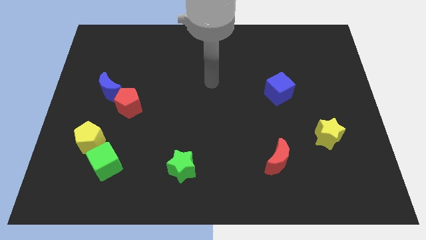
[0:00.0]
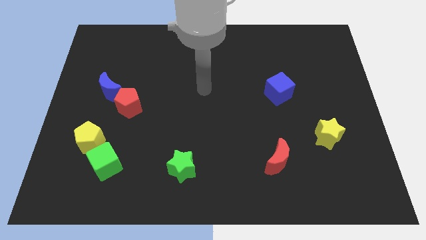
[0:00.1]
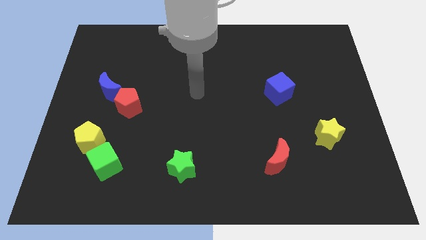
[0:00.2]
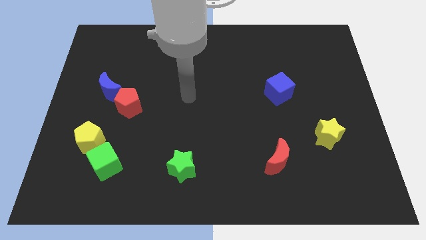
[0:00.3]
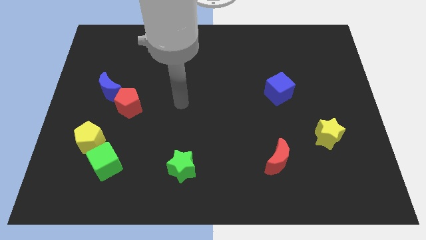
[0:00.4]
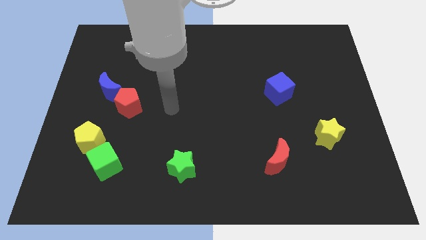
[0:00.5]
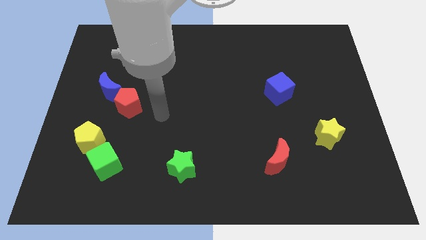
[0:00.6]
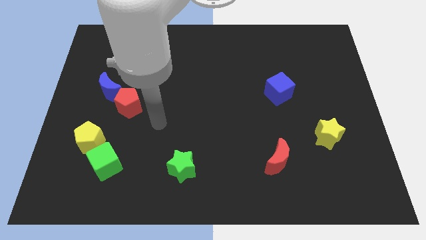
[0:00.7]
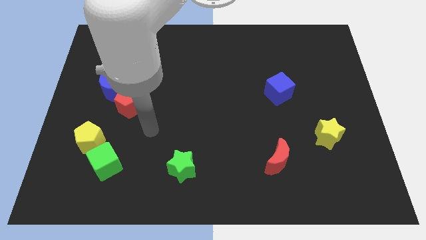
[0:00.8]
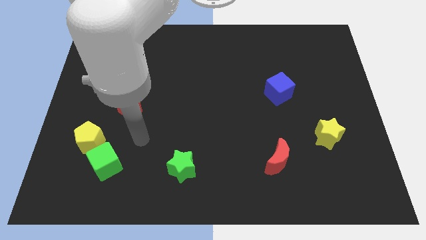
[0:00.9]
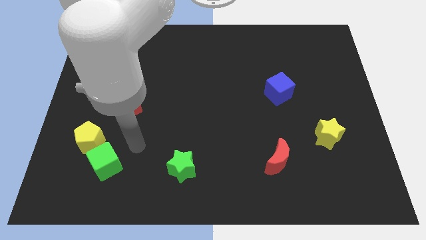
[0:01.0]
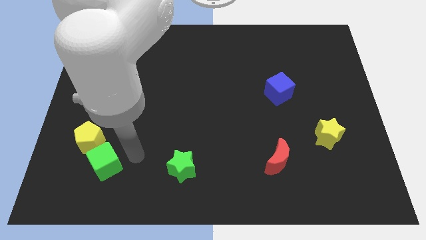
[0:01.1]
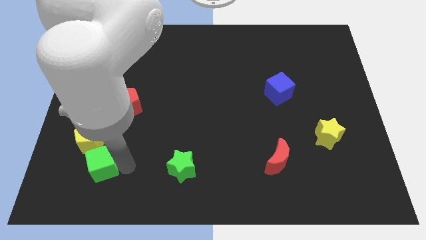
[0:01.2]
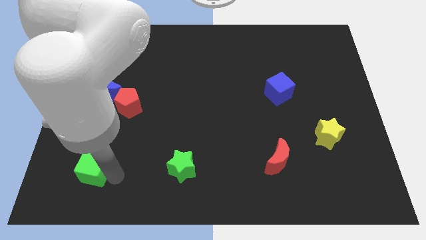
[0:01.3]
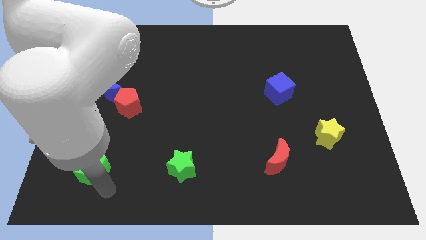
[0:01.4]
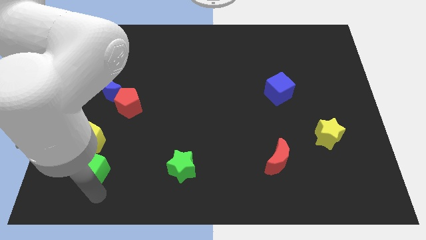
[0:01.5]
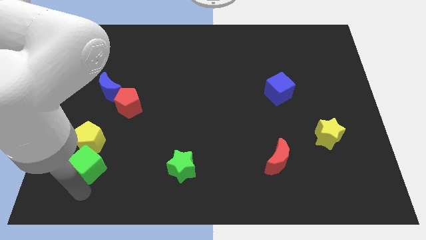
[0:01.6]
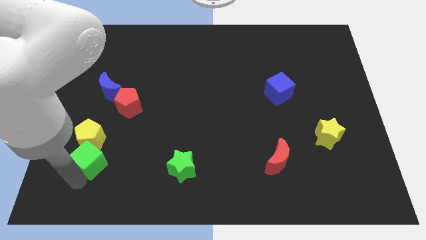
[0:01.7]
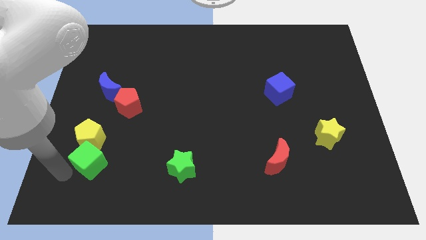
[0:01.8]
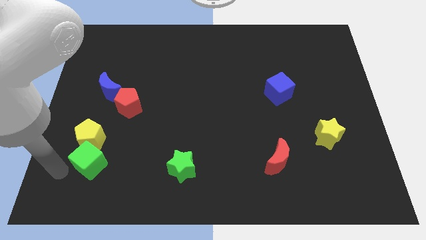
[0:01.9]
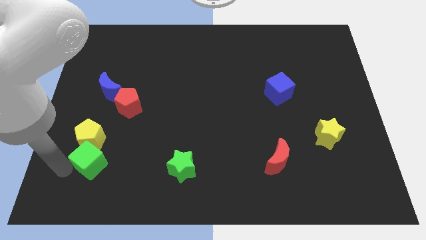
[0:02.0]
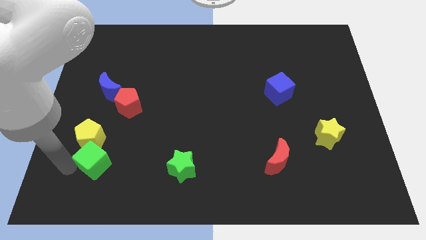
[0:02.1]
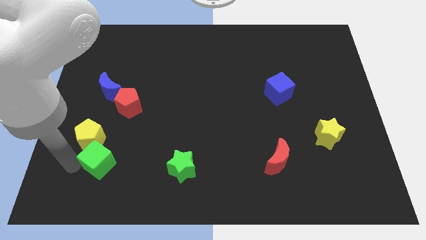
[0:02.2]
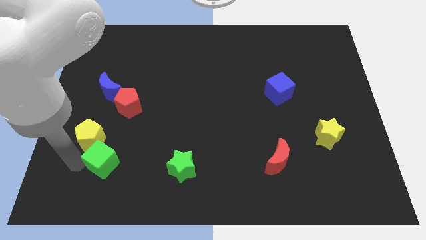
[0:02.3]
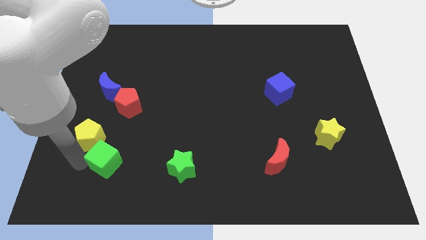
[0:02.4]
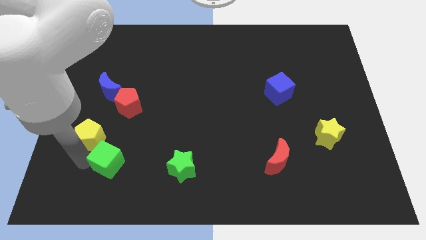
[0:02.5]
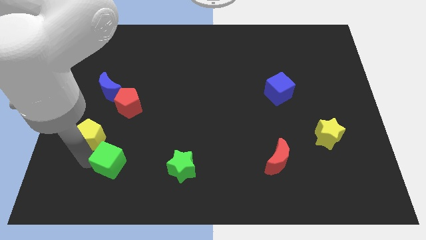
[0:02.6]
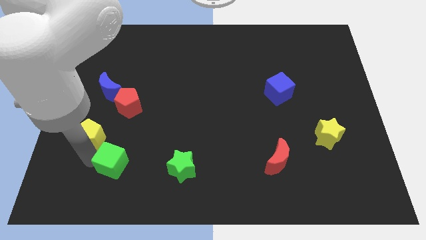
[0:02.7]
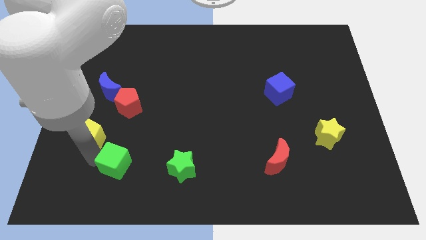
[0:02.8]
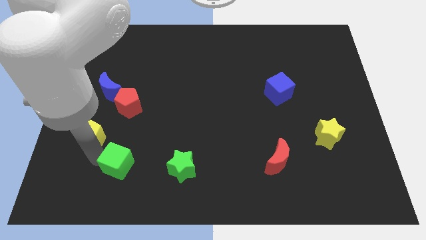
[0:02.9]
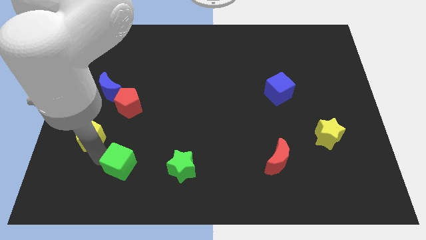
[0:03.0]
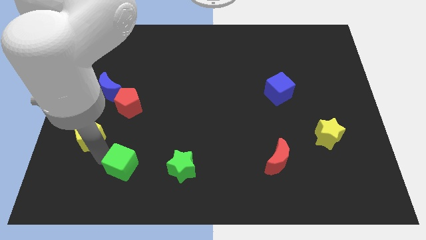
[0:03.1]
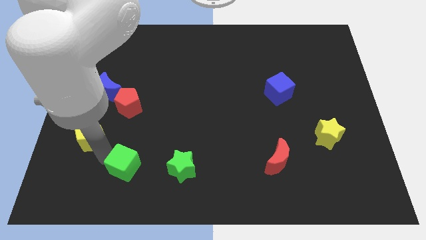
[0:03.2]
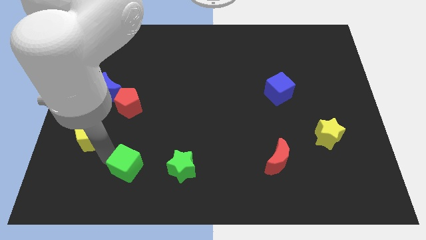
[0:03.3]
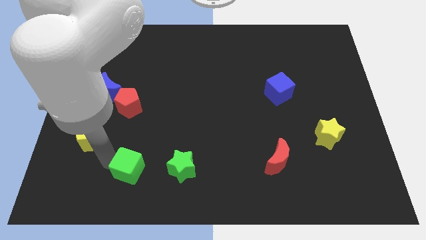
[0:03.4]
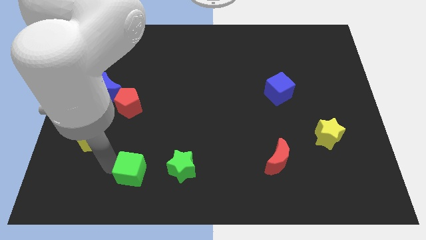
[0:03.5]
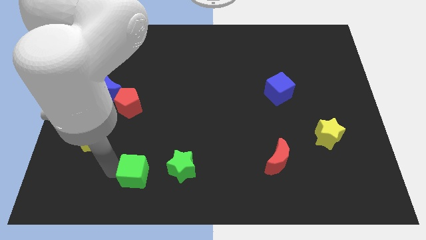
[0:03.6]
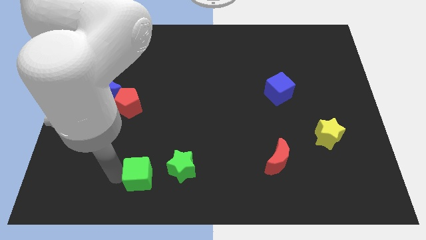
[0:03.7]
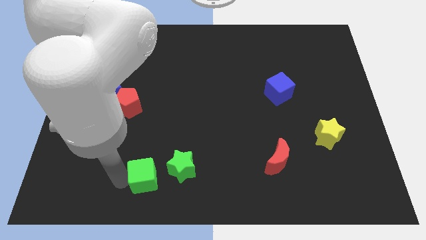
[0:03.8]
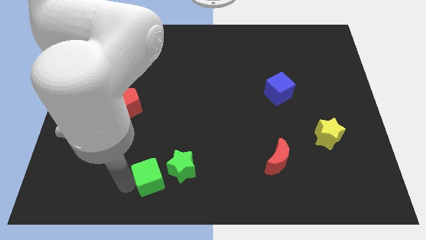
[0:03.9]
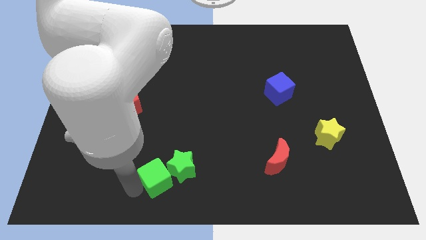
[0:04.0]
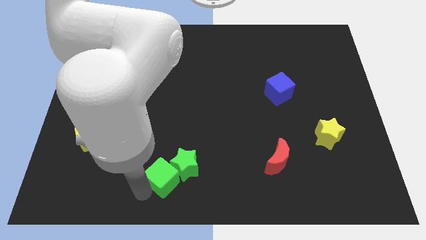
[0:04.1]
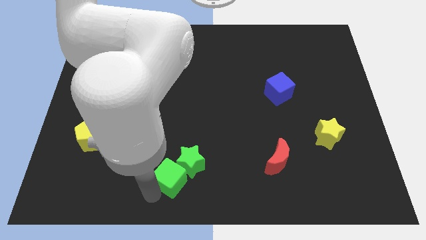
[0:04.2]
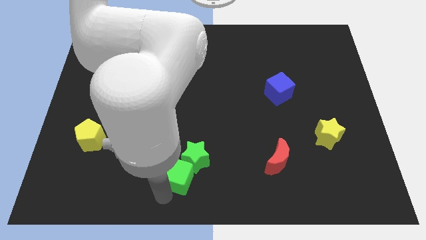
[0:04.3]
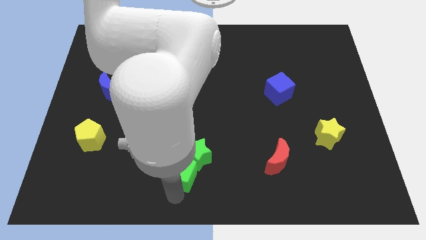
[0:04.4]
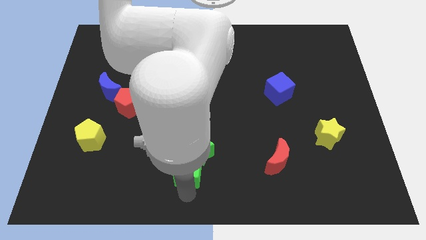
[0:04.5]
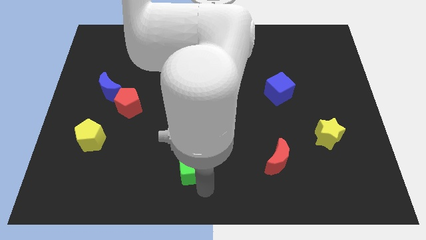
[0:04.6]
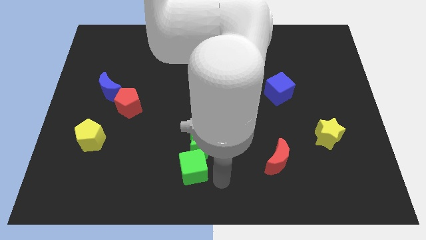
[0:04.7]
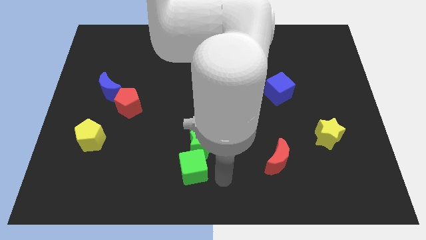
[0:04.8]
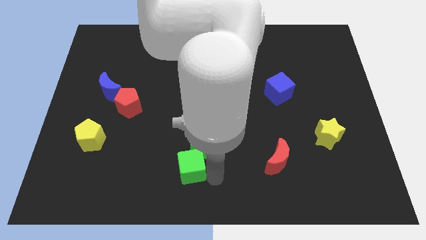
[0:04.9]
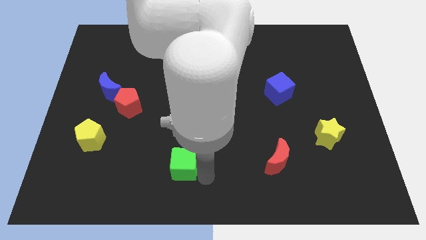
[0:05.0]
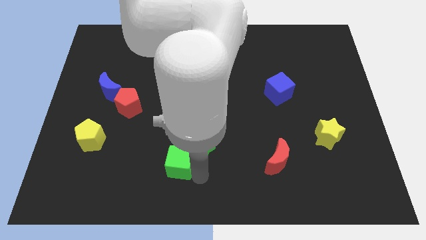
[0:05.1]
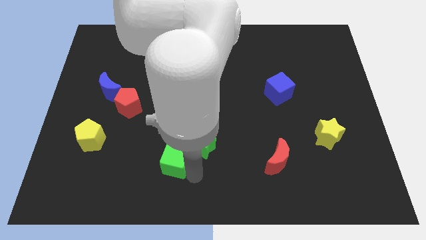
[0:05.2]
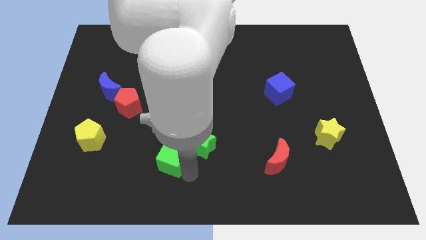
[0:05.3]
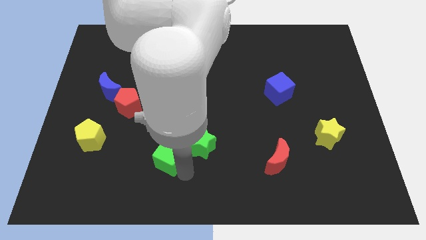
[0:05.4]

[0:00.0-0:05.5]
push the green cube slightly up and to the right

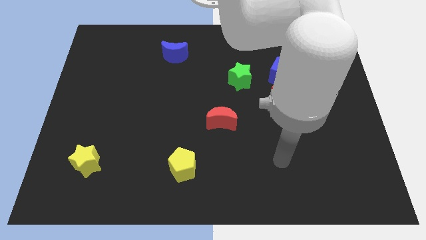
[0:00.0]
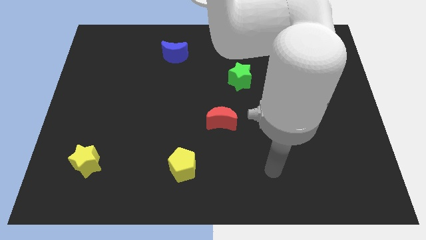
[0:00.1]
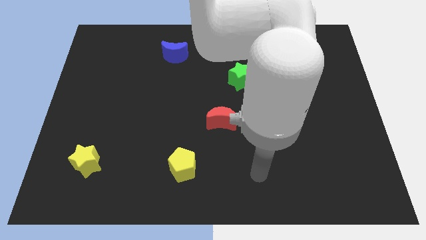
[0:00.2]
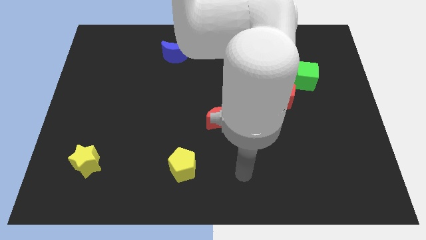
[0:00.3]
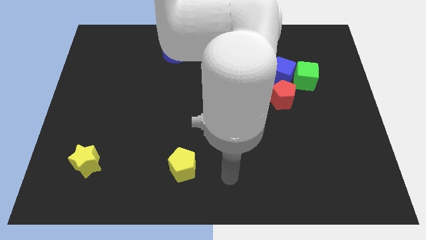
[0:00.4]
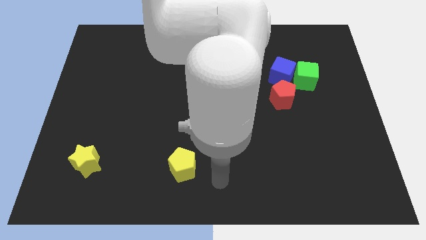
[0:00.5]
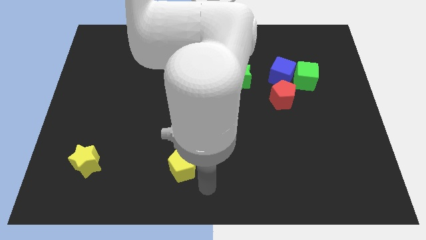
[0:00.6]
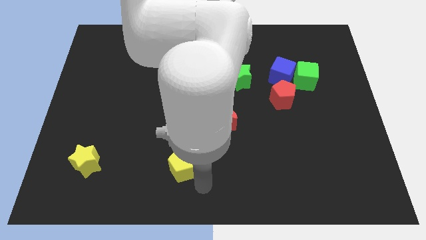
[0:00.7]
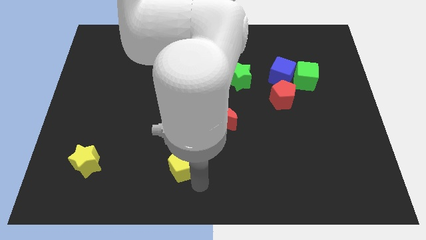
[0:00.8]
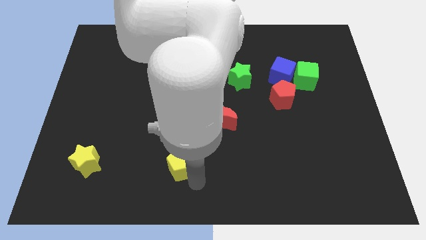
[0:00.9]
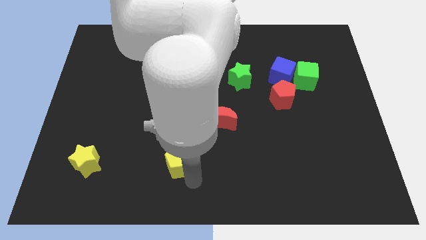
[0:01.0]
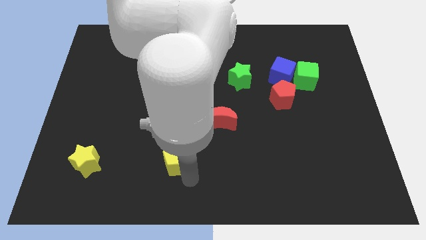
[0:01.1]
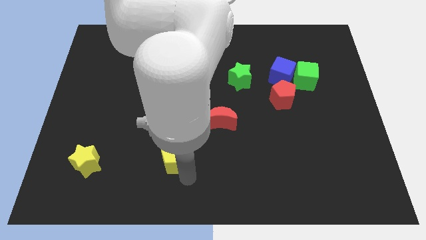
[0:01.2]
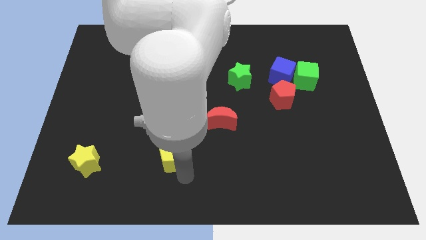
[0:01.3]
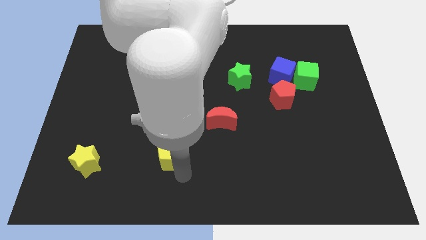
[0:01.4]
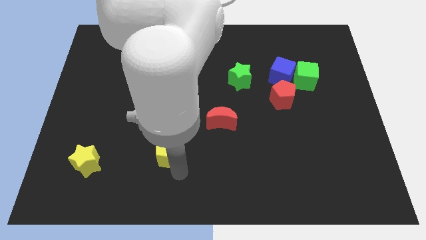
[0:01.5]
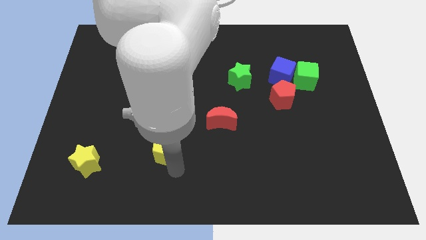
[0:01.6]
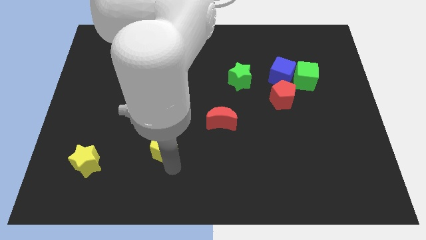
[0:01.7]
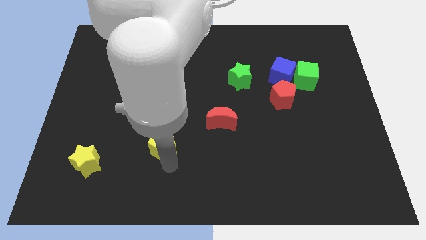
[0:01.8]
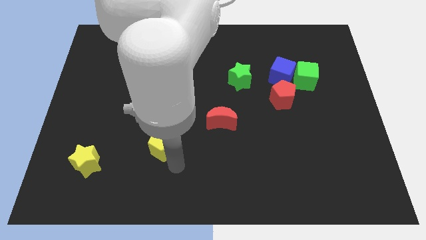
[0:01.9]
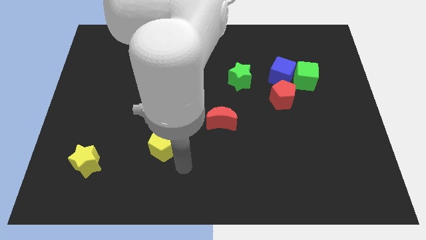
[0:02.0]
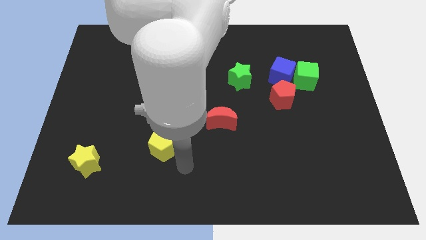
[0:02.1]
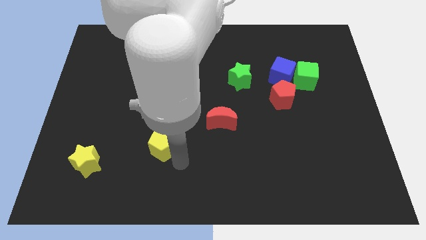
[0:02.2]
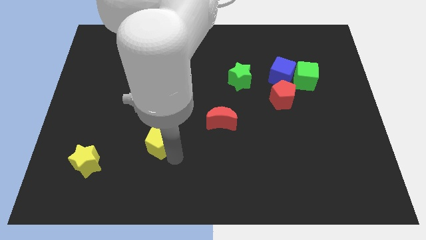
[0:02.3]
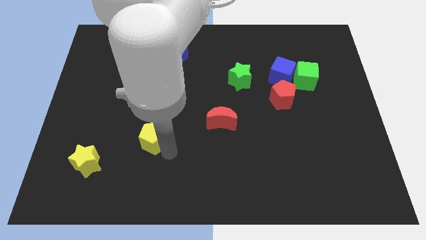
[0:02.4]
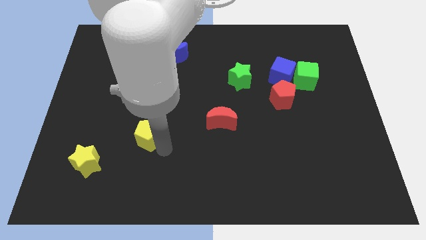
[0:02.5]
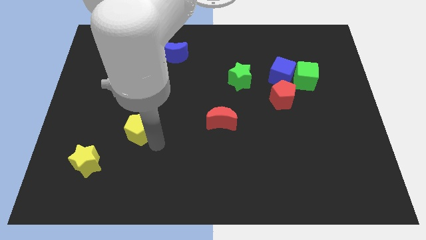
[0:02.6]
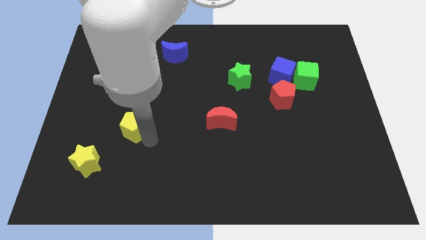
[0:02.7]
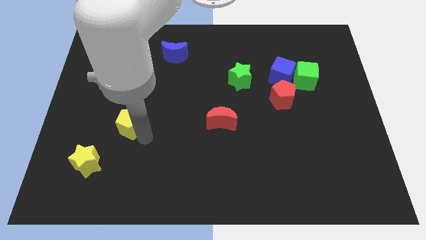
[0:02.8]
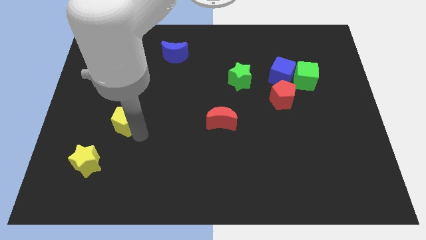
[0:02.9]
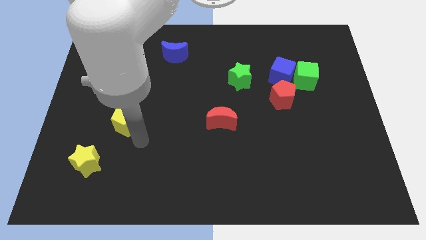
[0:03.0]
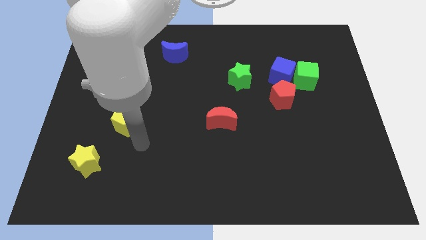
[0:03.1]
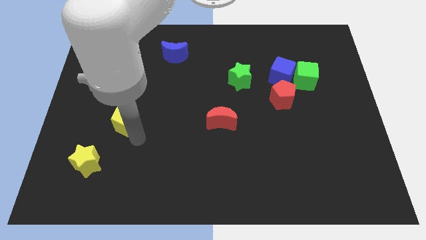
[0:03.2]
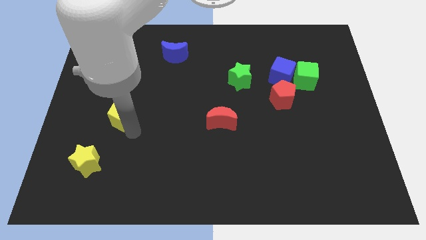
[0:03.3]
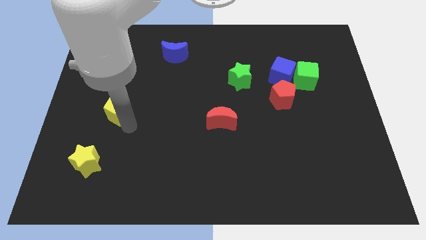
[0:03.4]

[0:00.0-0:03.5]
slide the yellow pentagon diagonally up and to the left
